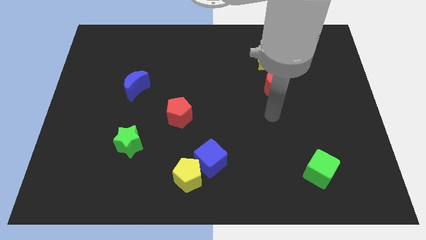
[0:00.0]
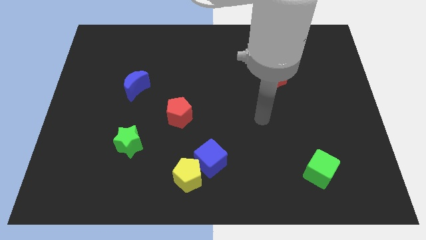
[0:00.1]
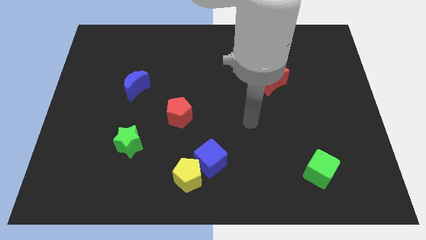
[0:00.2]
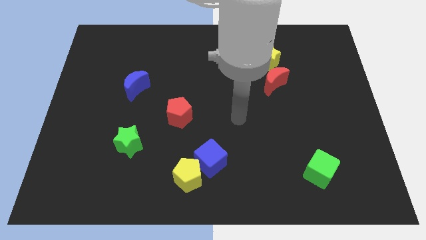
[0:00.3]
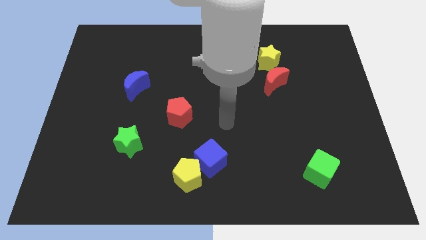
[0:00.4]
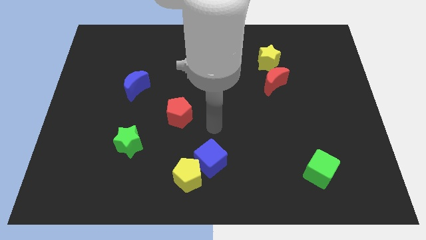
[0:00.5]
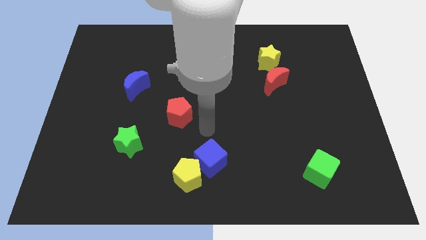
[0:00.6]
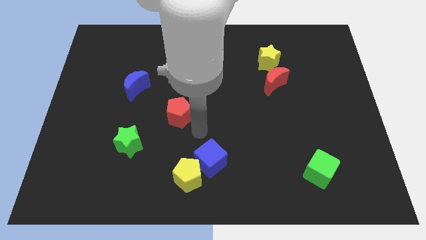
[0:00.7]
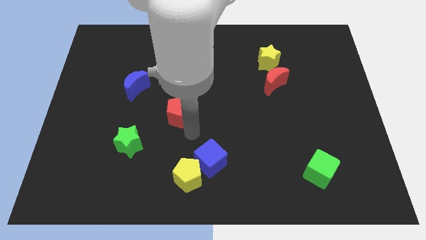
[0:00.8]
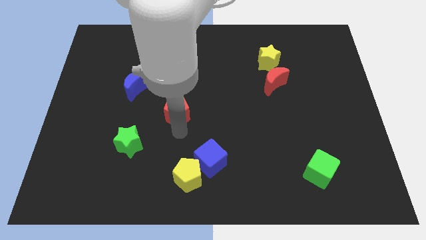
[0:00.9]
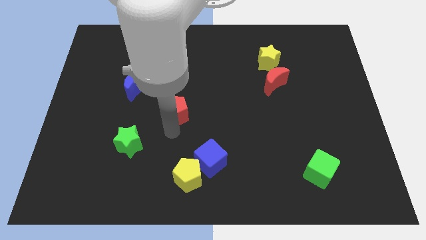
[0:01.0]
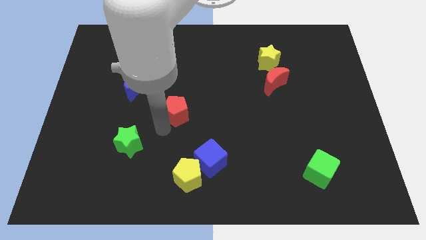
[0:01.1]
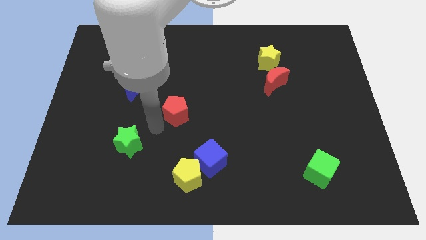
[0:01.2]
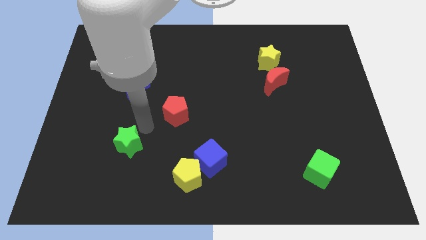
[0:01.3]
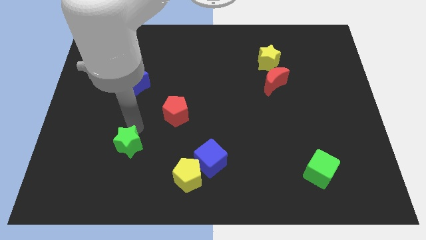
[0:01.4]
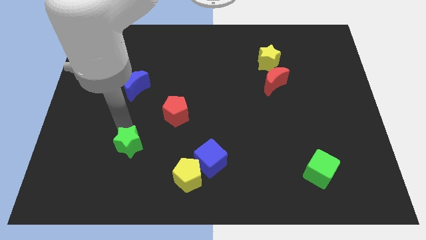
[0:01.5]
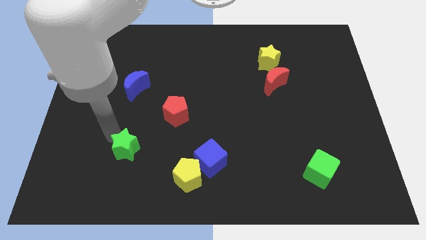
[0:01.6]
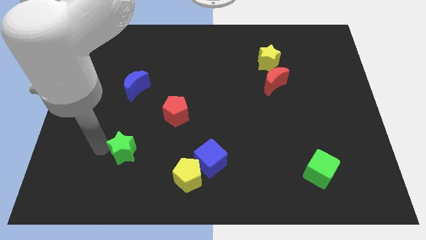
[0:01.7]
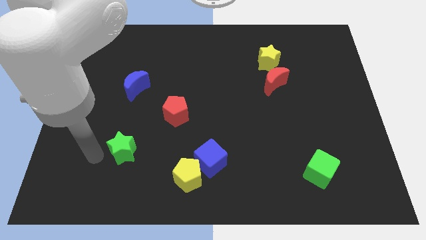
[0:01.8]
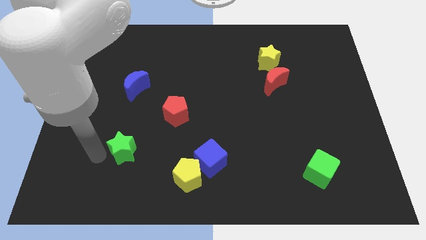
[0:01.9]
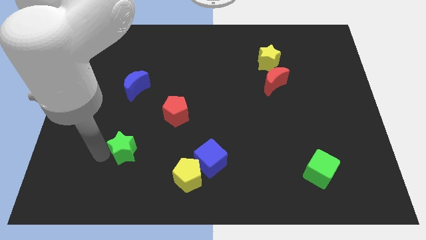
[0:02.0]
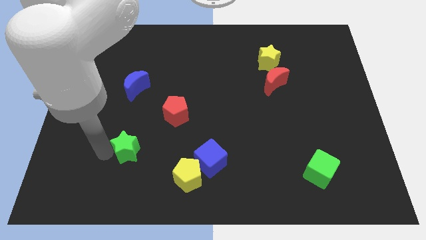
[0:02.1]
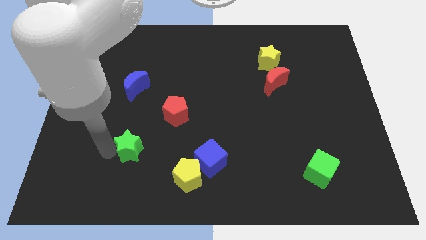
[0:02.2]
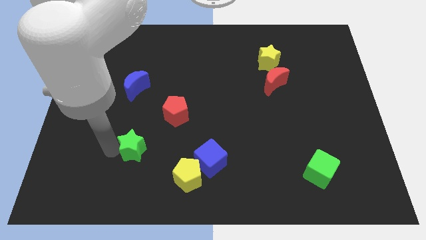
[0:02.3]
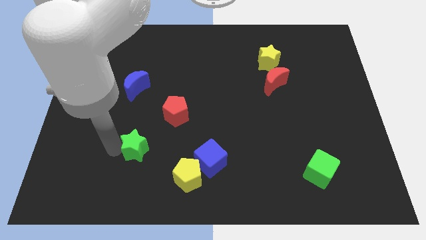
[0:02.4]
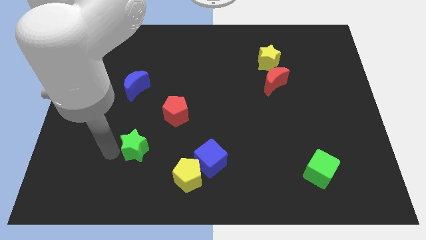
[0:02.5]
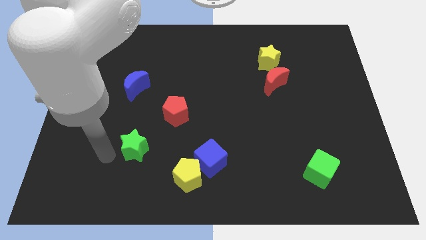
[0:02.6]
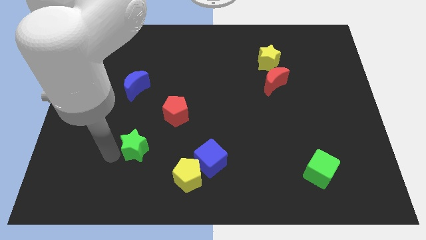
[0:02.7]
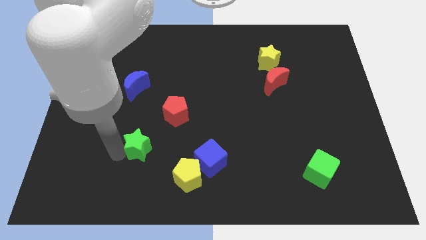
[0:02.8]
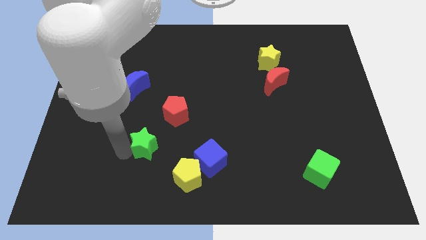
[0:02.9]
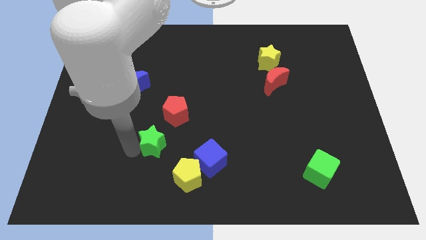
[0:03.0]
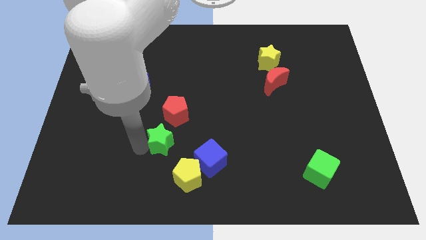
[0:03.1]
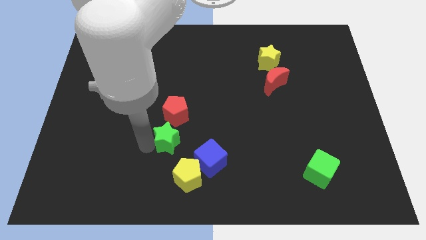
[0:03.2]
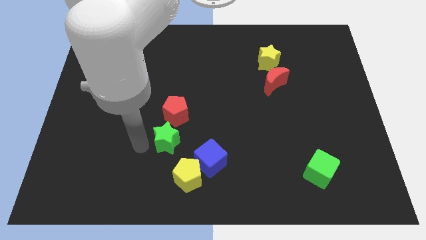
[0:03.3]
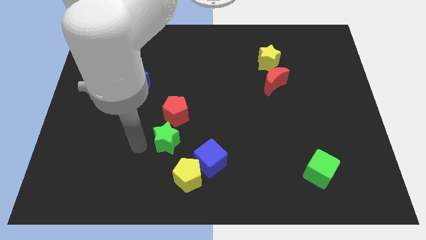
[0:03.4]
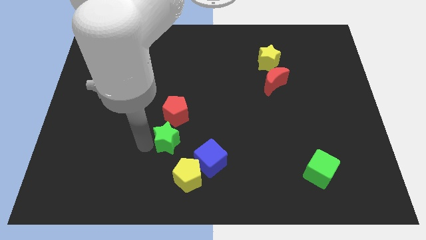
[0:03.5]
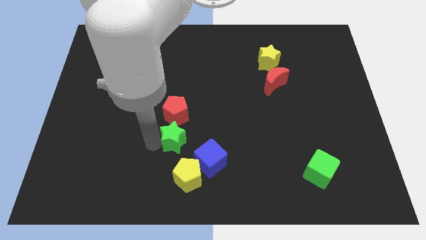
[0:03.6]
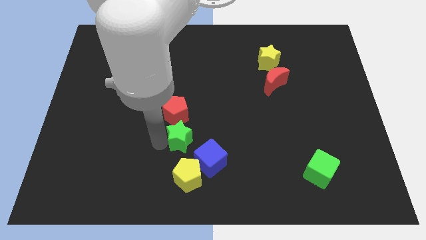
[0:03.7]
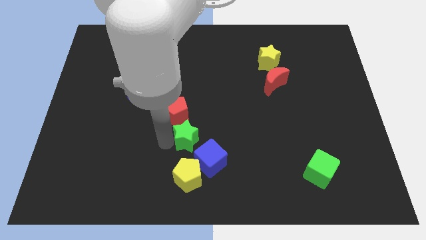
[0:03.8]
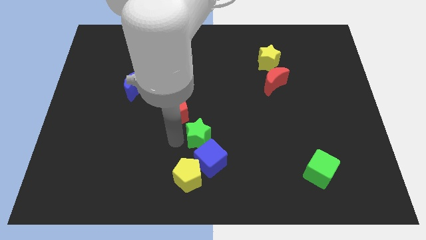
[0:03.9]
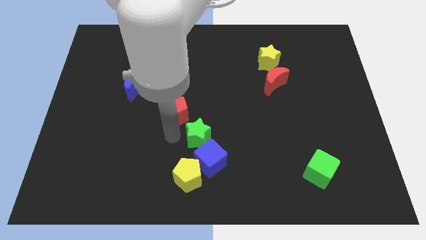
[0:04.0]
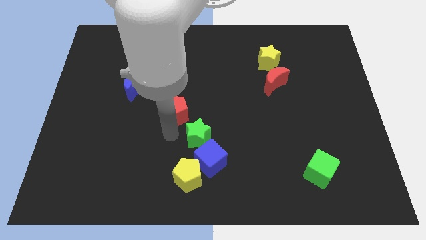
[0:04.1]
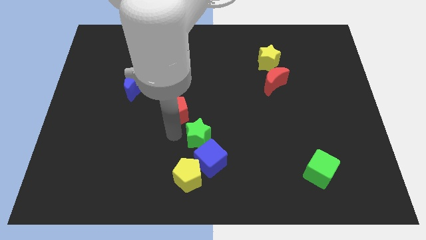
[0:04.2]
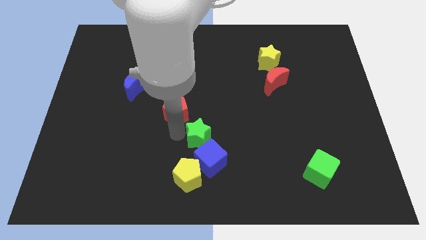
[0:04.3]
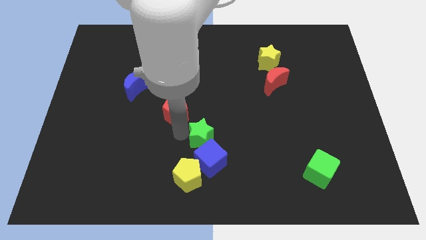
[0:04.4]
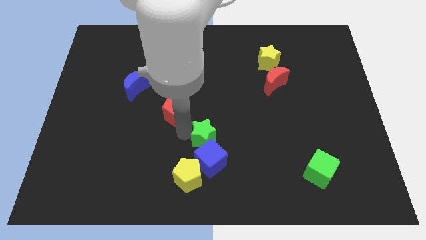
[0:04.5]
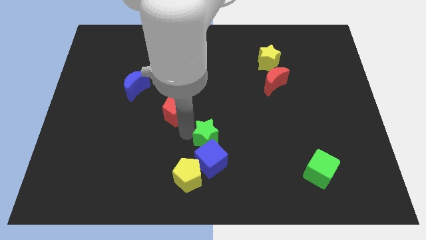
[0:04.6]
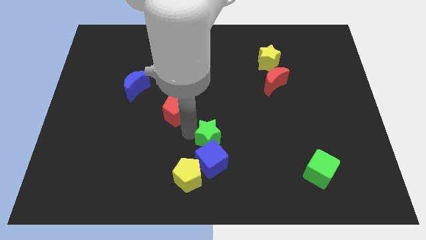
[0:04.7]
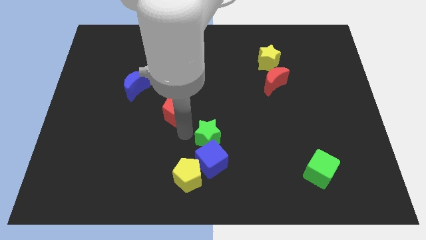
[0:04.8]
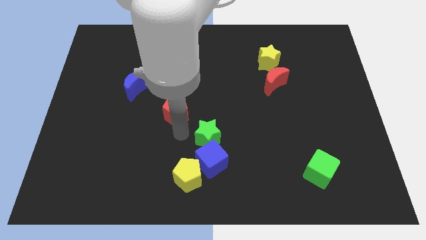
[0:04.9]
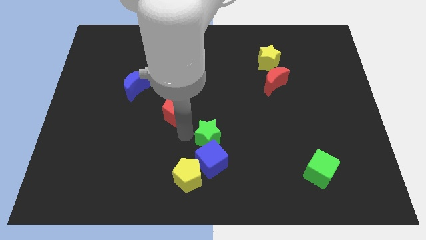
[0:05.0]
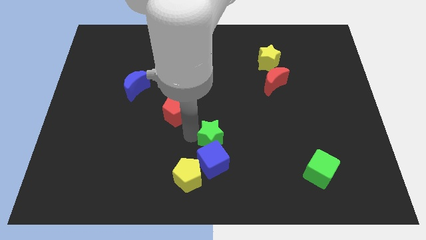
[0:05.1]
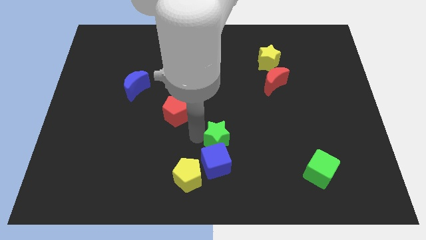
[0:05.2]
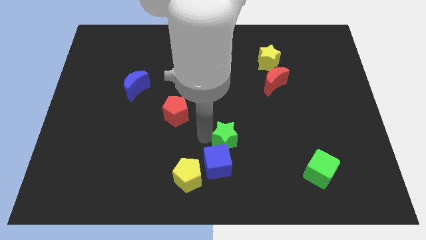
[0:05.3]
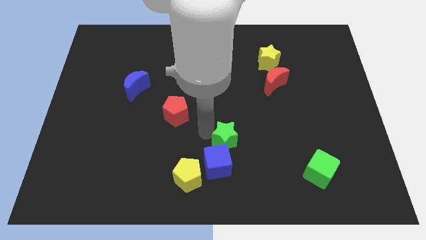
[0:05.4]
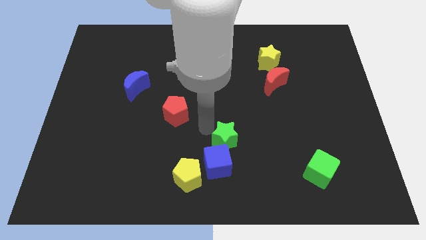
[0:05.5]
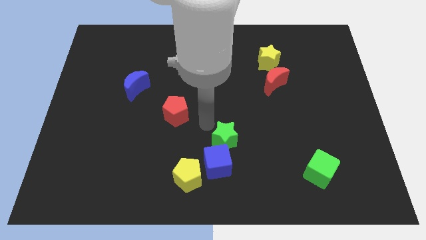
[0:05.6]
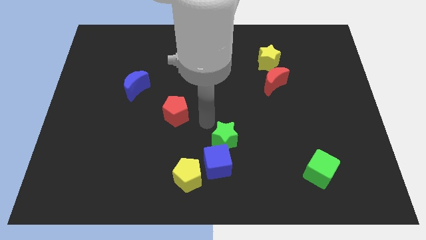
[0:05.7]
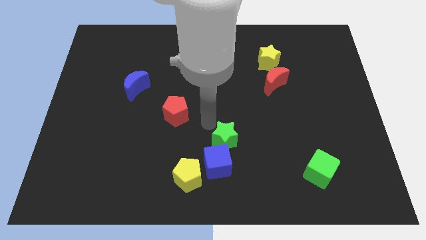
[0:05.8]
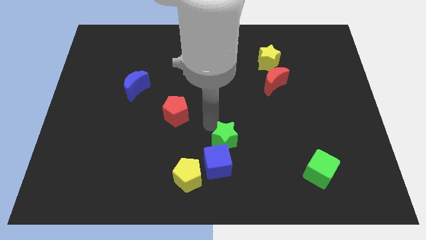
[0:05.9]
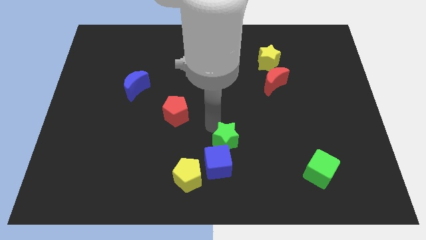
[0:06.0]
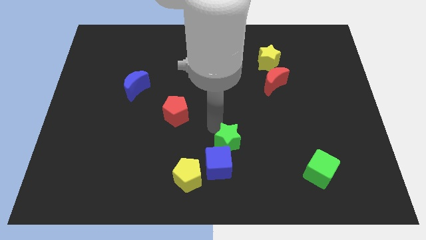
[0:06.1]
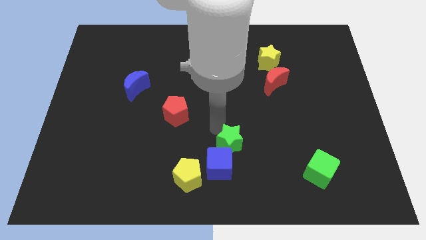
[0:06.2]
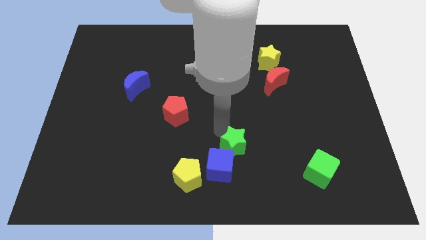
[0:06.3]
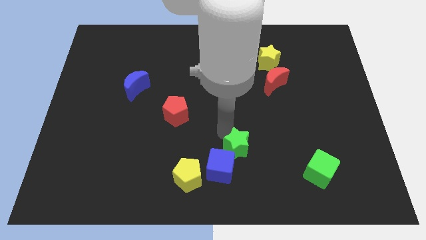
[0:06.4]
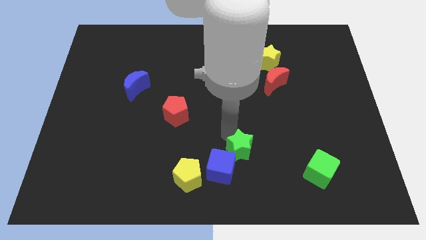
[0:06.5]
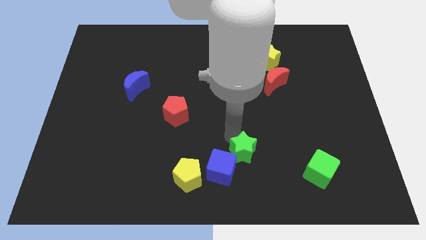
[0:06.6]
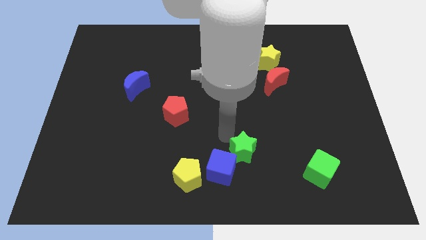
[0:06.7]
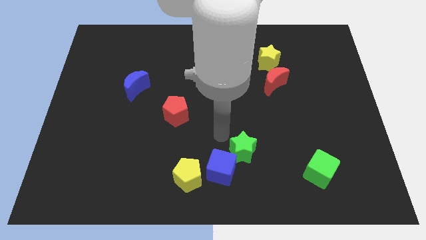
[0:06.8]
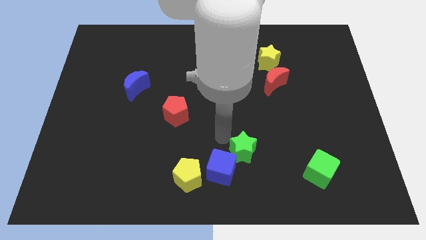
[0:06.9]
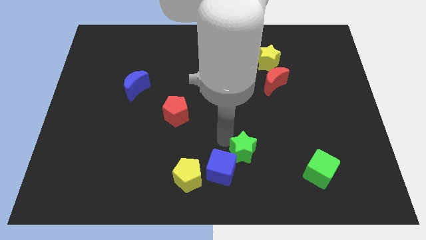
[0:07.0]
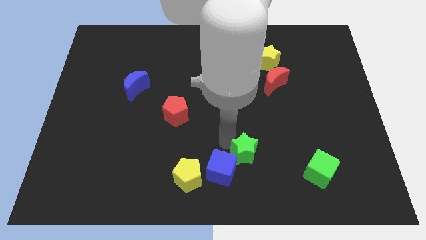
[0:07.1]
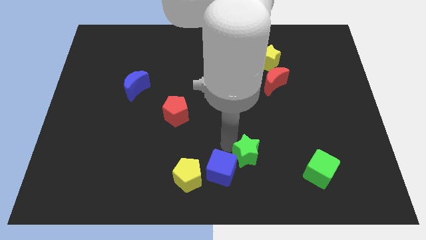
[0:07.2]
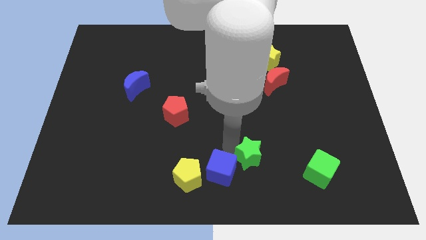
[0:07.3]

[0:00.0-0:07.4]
move the green star left of the green cube

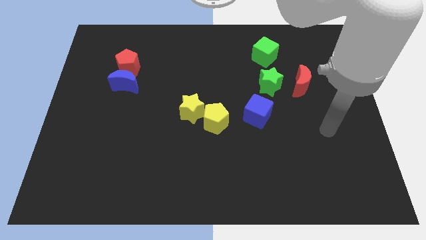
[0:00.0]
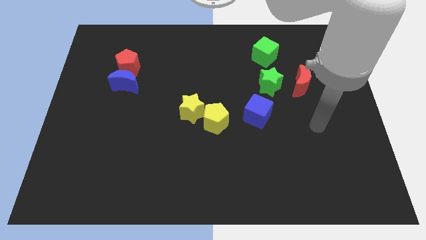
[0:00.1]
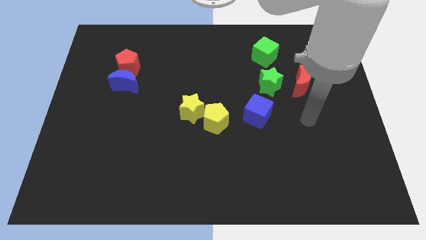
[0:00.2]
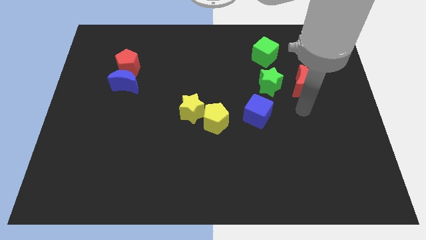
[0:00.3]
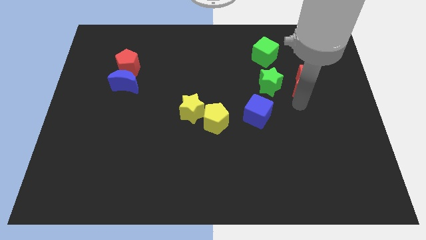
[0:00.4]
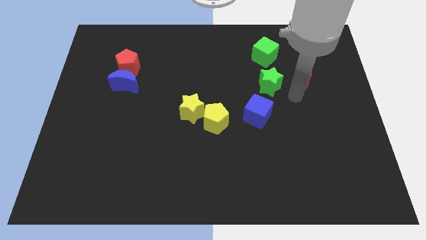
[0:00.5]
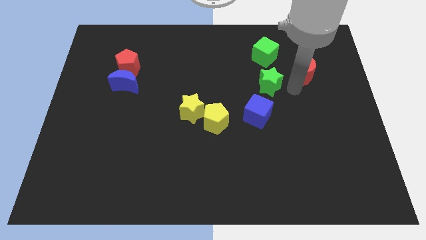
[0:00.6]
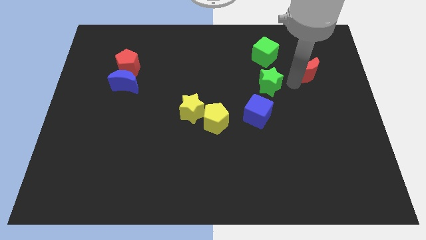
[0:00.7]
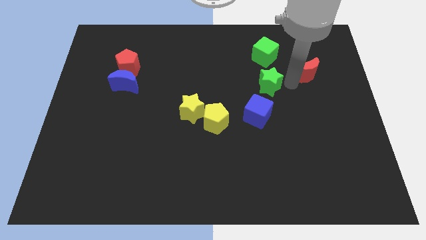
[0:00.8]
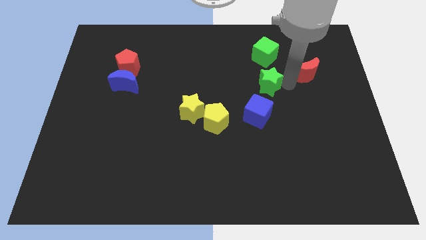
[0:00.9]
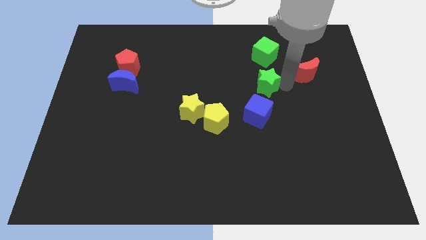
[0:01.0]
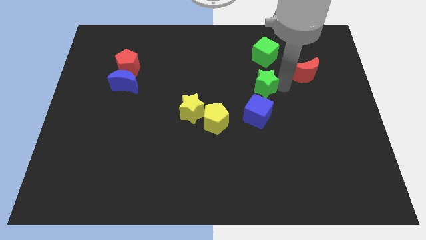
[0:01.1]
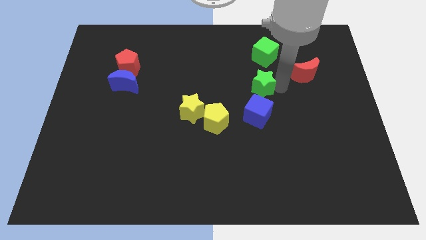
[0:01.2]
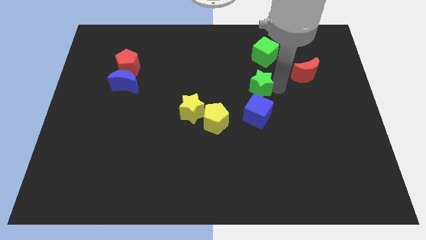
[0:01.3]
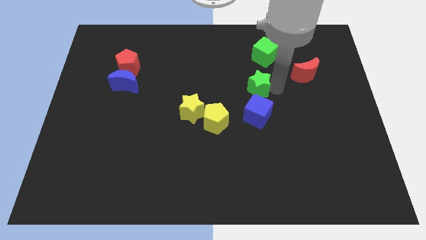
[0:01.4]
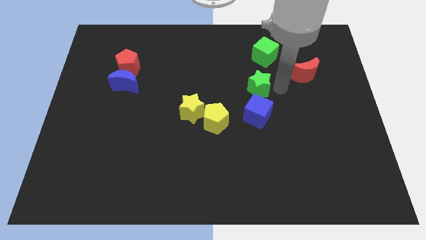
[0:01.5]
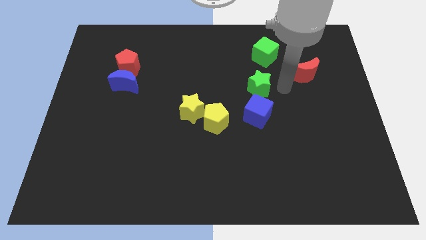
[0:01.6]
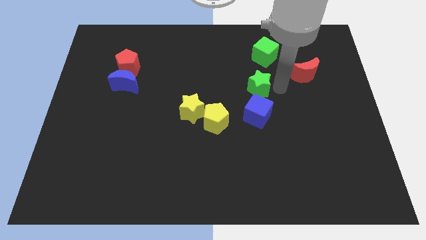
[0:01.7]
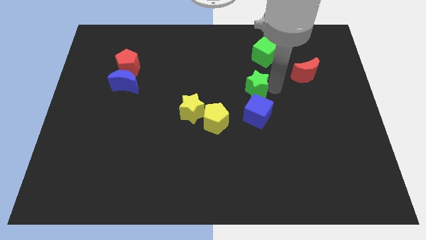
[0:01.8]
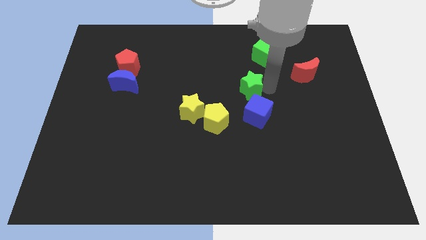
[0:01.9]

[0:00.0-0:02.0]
push the green star to the top left of the blue cube
